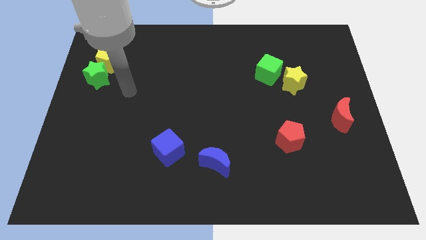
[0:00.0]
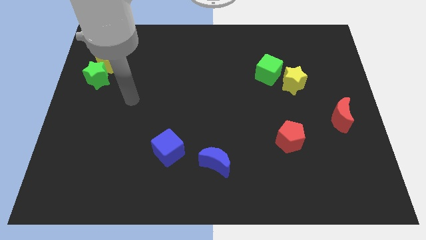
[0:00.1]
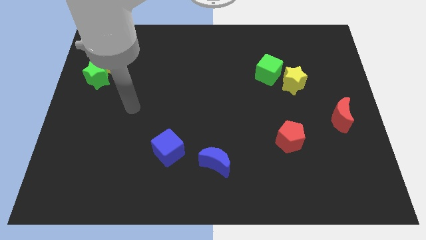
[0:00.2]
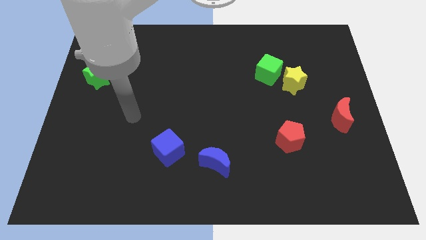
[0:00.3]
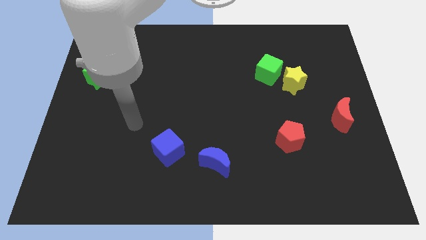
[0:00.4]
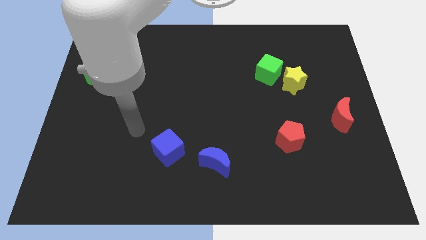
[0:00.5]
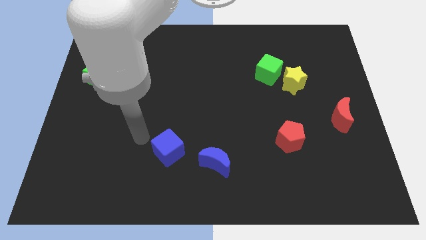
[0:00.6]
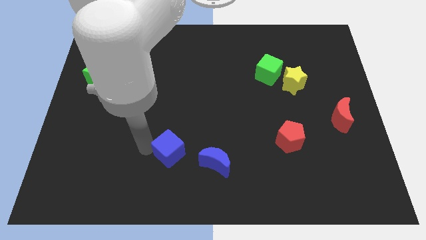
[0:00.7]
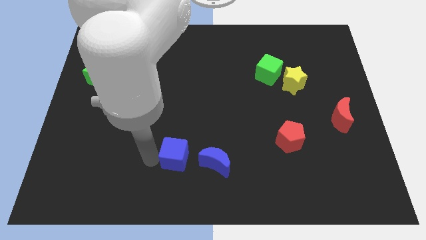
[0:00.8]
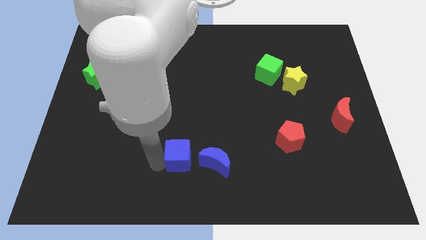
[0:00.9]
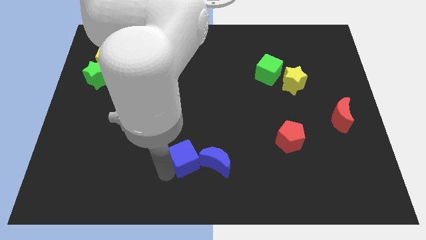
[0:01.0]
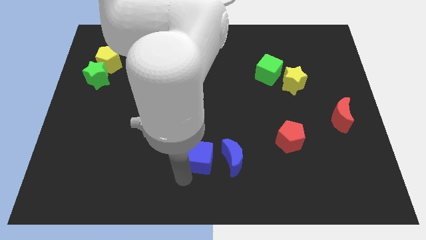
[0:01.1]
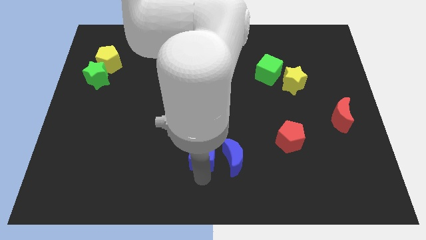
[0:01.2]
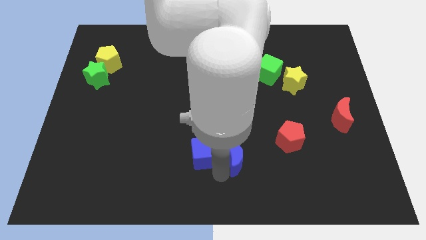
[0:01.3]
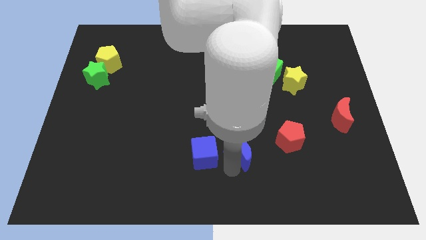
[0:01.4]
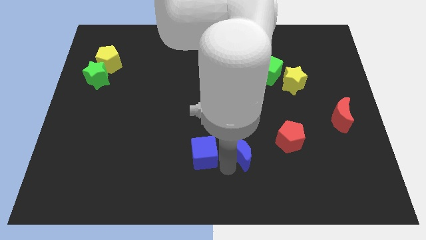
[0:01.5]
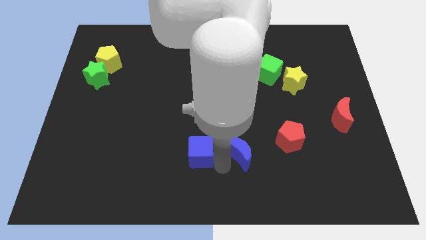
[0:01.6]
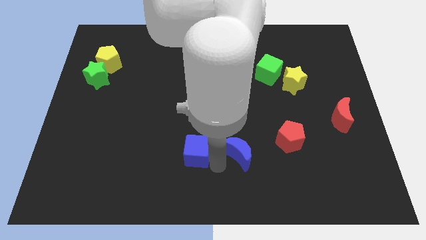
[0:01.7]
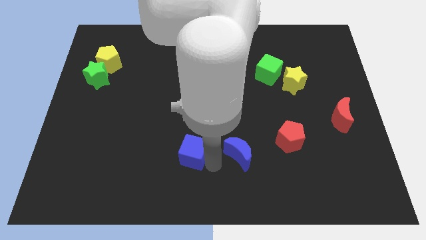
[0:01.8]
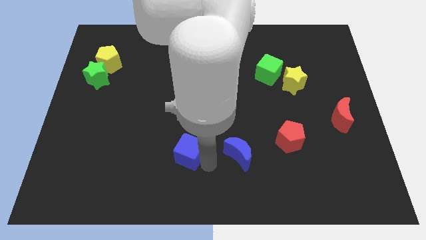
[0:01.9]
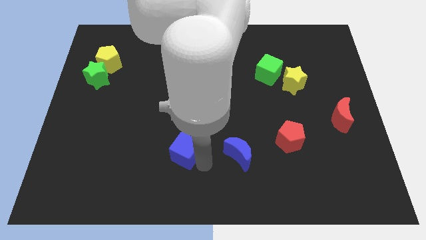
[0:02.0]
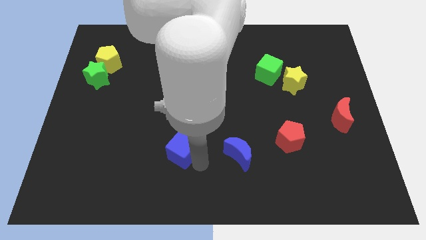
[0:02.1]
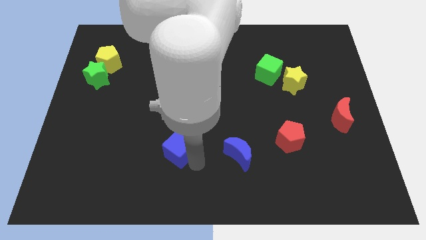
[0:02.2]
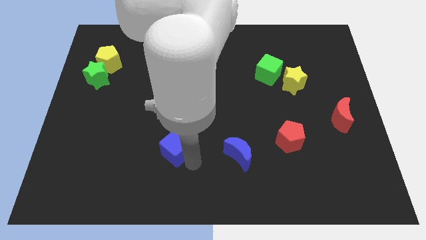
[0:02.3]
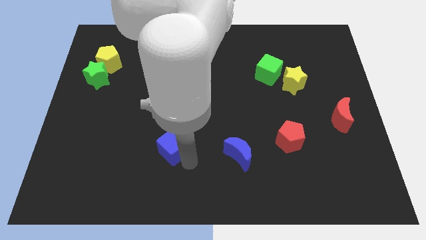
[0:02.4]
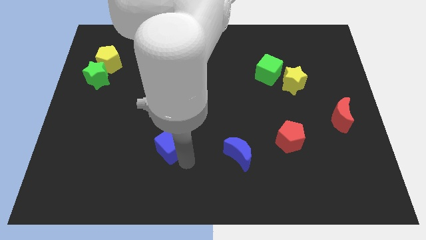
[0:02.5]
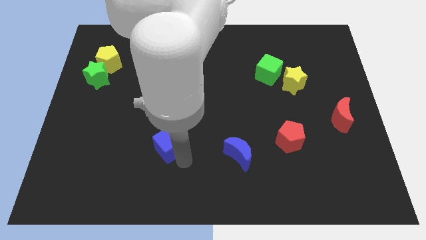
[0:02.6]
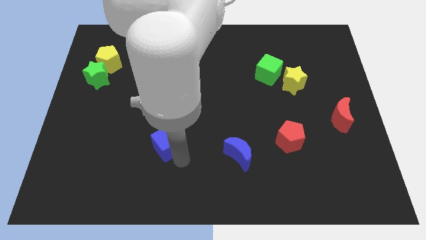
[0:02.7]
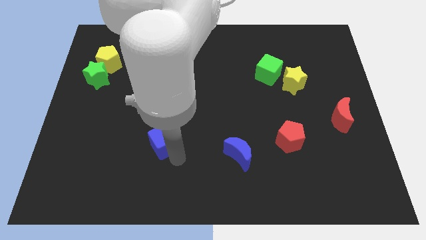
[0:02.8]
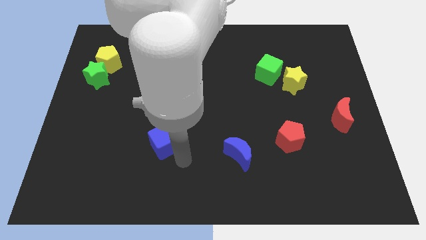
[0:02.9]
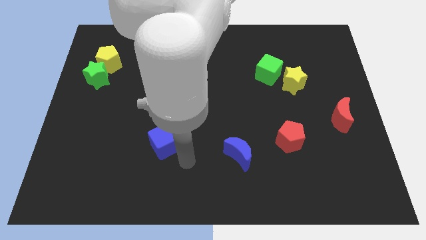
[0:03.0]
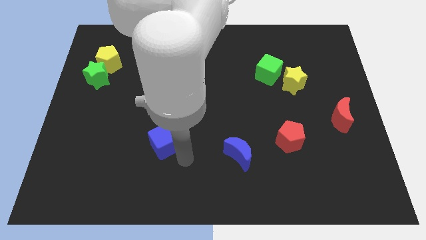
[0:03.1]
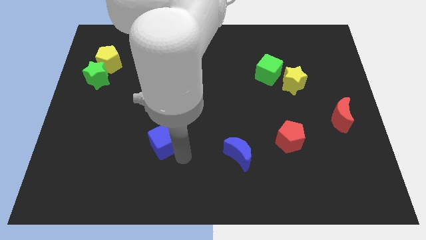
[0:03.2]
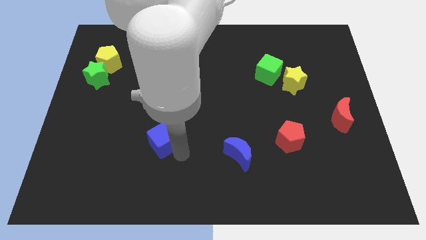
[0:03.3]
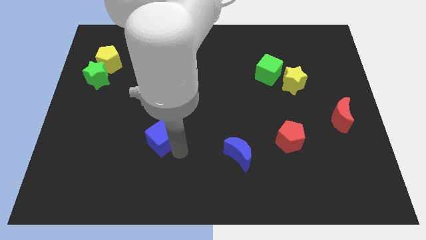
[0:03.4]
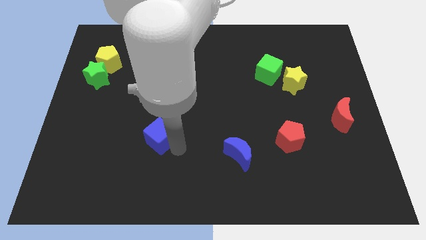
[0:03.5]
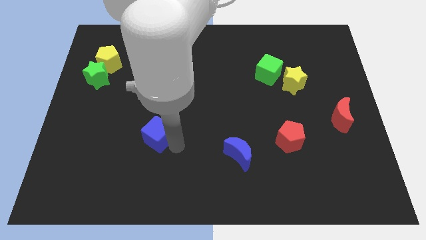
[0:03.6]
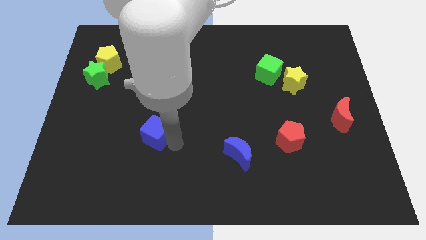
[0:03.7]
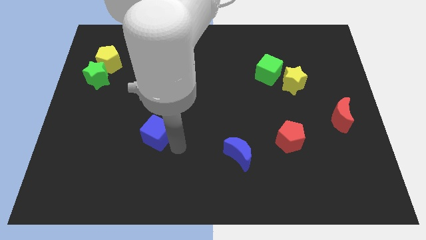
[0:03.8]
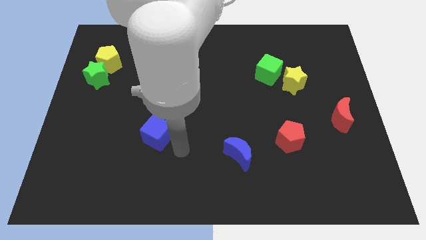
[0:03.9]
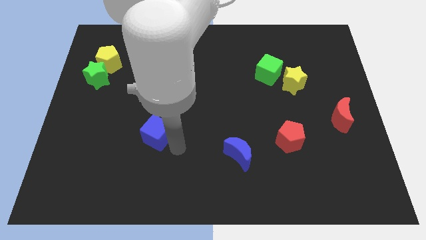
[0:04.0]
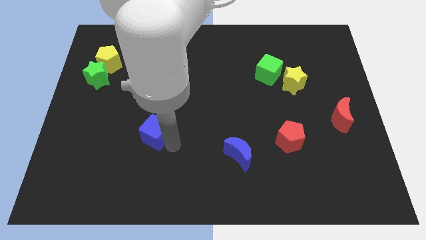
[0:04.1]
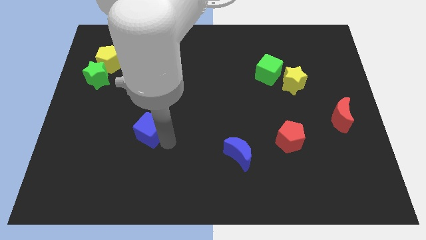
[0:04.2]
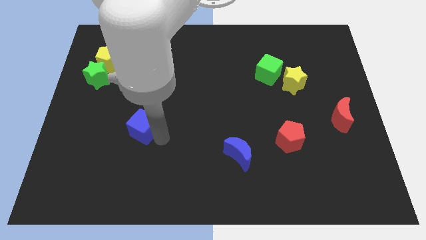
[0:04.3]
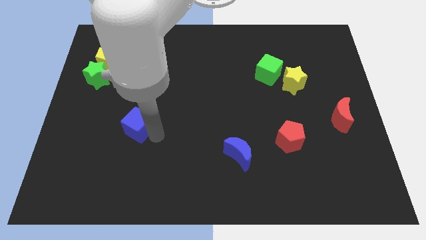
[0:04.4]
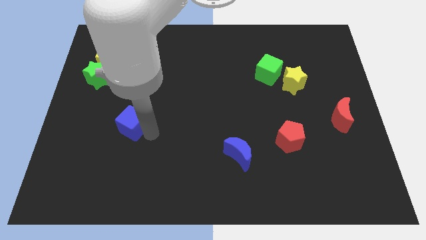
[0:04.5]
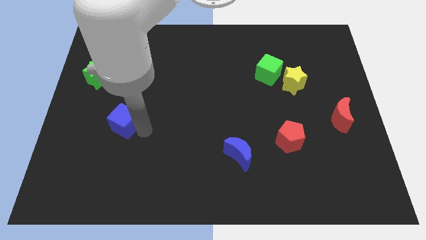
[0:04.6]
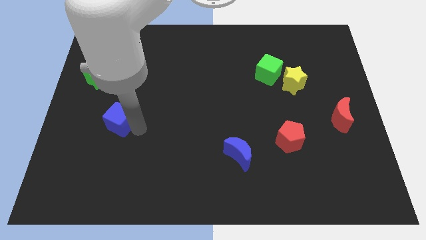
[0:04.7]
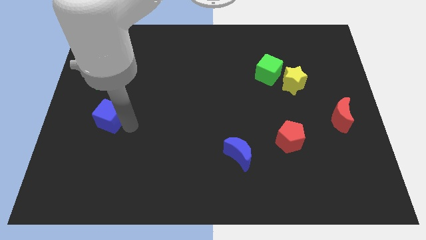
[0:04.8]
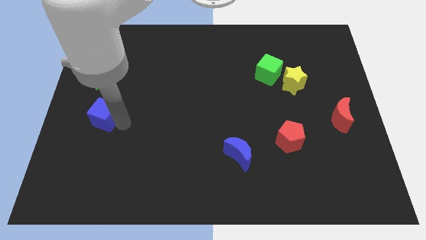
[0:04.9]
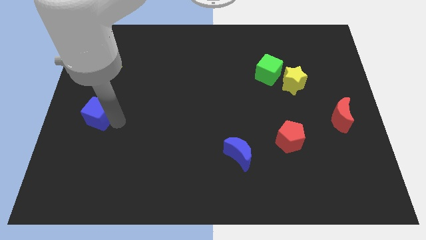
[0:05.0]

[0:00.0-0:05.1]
slide the blue cube to the left side

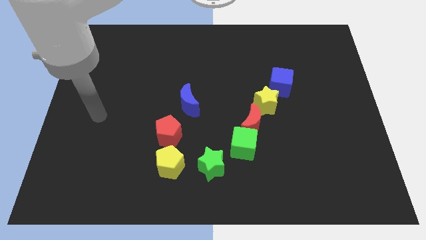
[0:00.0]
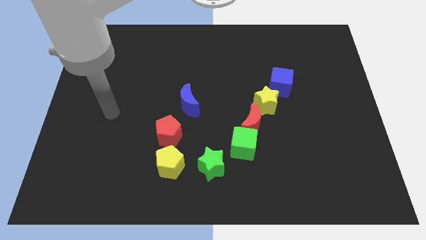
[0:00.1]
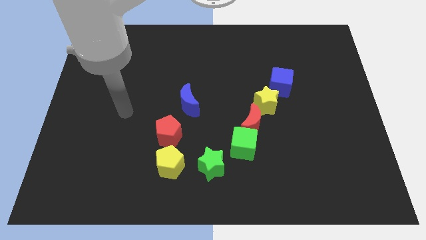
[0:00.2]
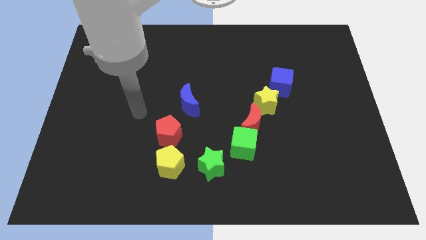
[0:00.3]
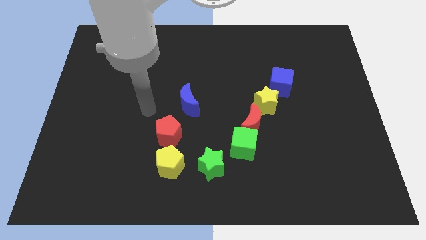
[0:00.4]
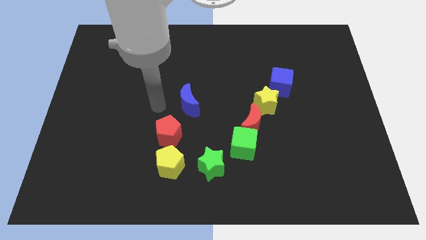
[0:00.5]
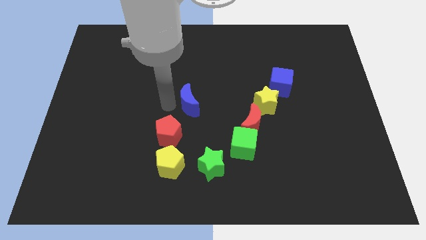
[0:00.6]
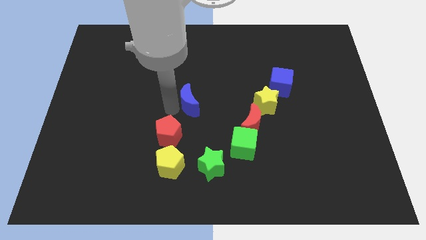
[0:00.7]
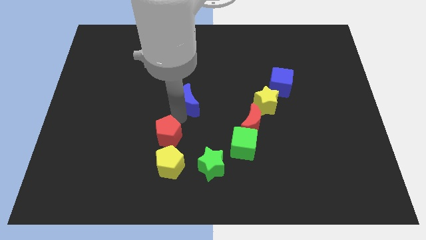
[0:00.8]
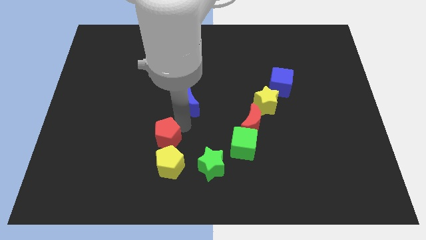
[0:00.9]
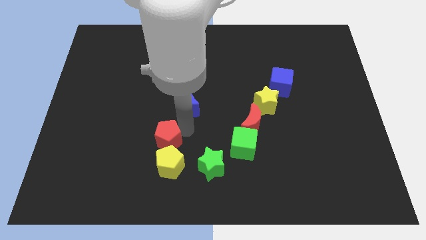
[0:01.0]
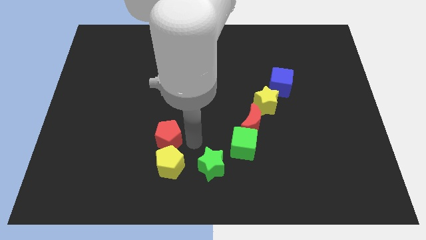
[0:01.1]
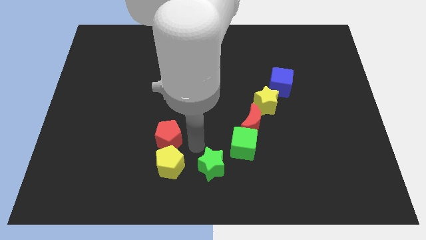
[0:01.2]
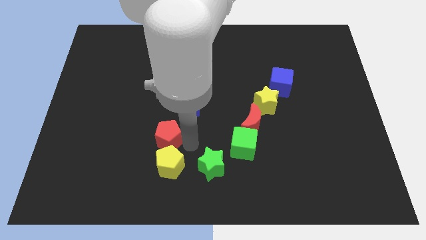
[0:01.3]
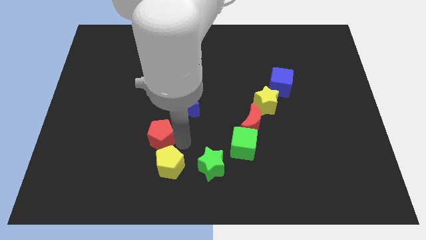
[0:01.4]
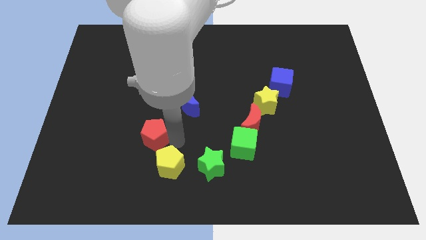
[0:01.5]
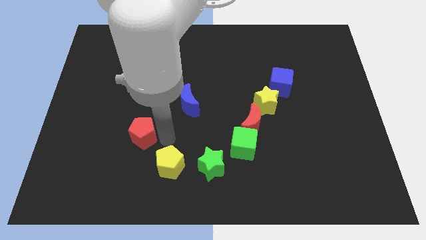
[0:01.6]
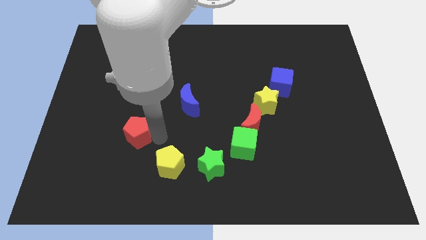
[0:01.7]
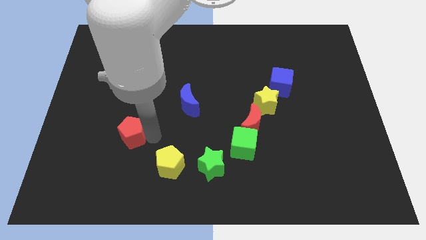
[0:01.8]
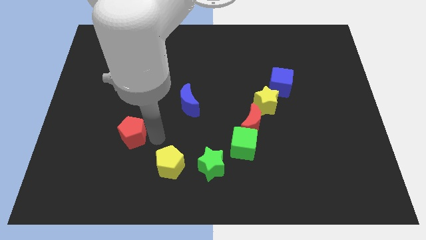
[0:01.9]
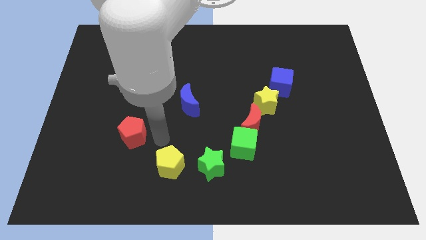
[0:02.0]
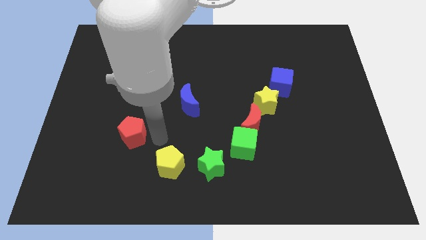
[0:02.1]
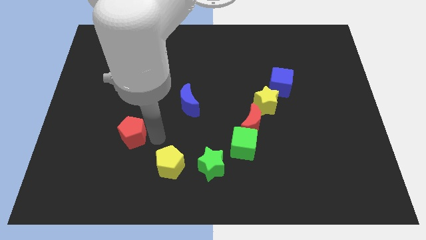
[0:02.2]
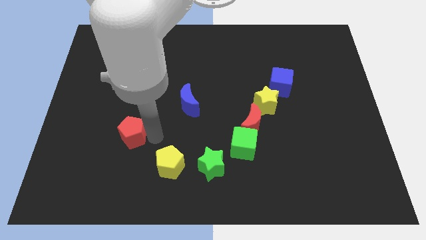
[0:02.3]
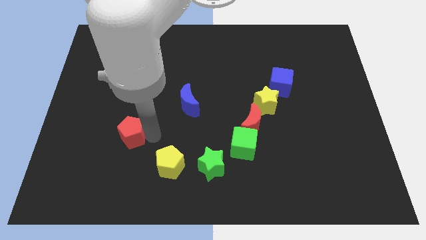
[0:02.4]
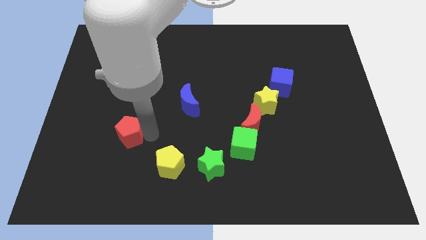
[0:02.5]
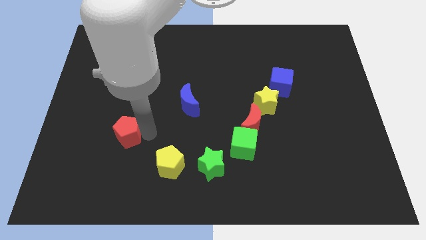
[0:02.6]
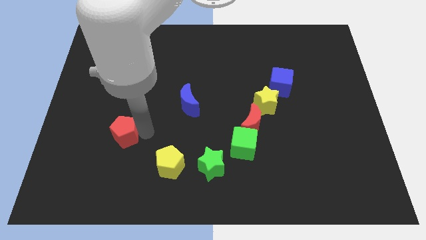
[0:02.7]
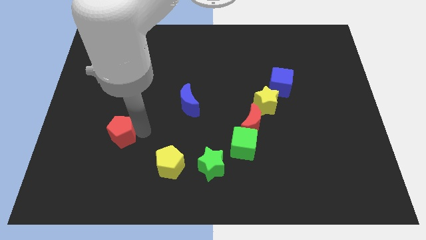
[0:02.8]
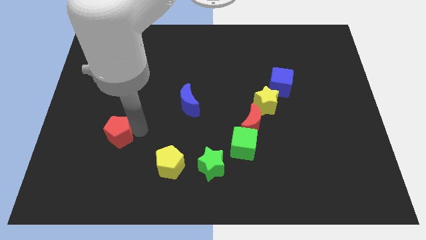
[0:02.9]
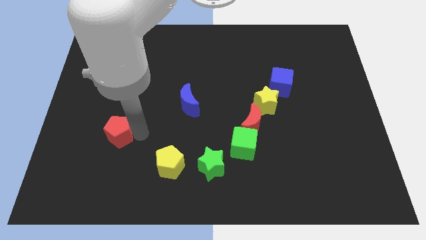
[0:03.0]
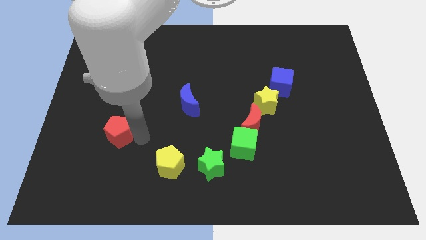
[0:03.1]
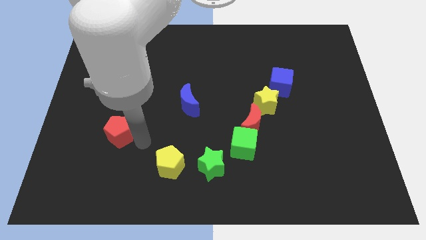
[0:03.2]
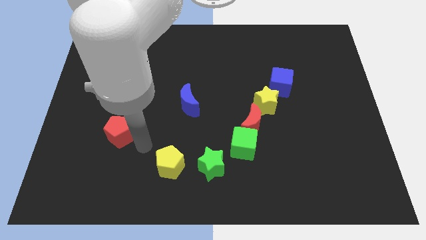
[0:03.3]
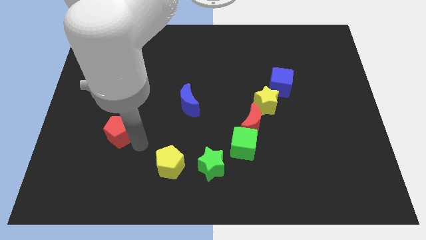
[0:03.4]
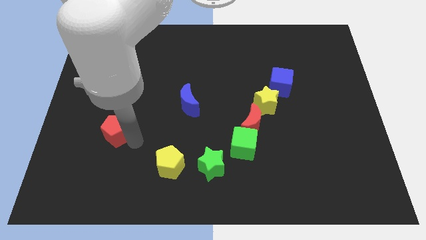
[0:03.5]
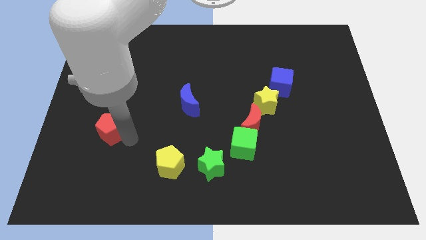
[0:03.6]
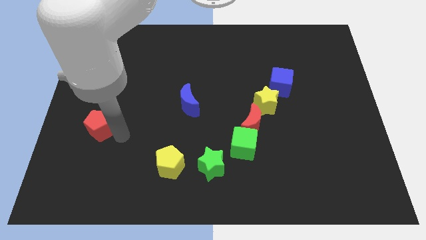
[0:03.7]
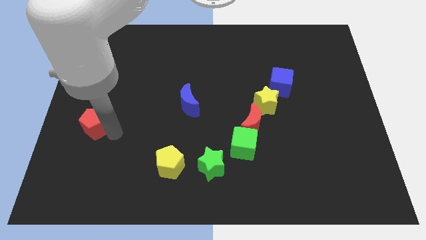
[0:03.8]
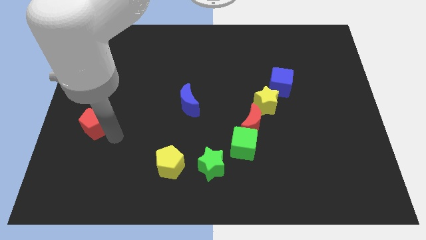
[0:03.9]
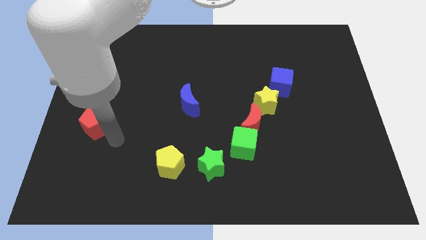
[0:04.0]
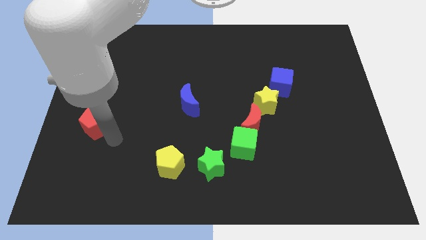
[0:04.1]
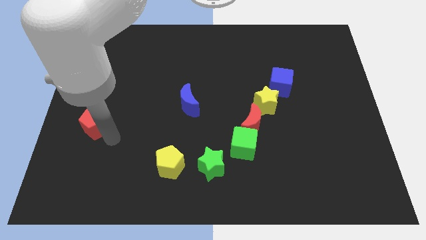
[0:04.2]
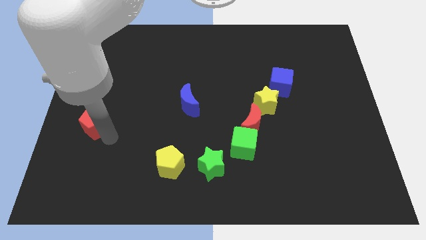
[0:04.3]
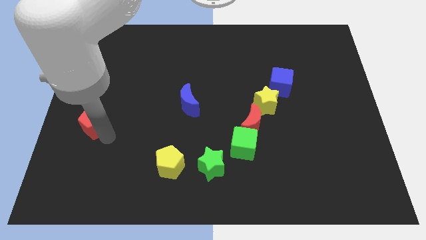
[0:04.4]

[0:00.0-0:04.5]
put the red pentagon to the center left
